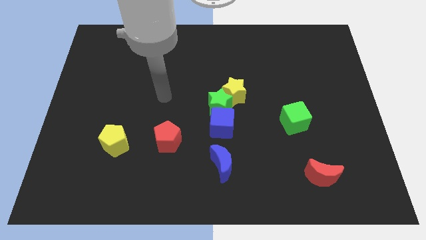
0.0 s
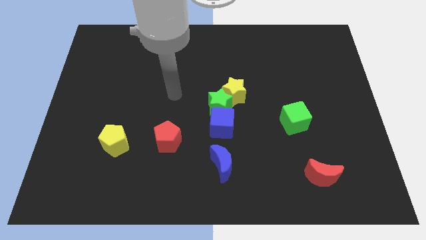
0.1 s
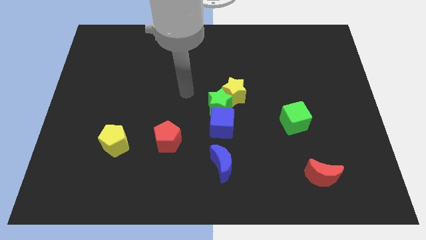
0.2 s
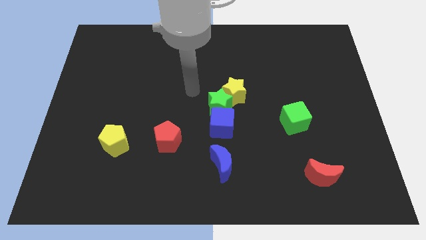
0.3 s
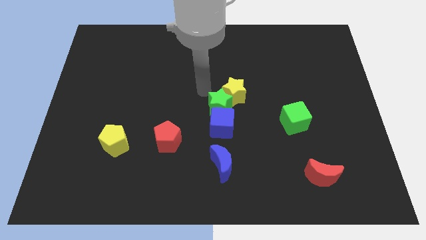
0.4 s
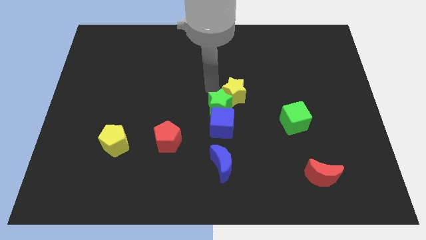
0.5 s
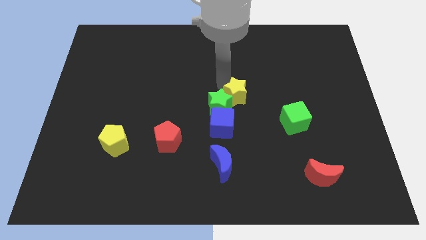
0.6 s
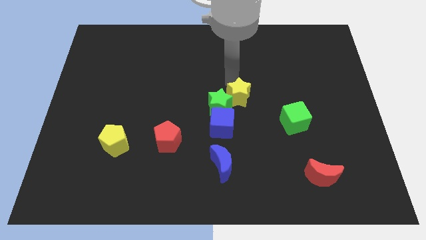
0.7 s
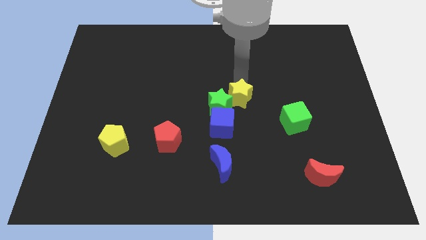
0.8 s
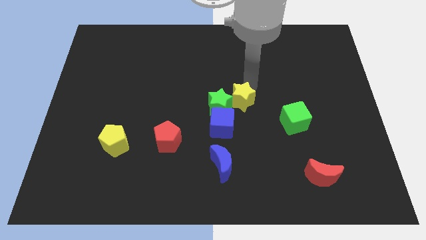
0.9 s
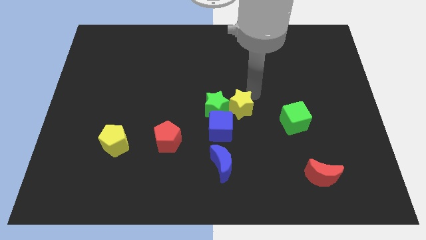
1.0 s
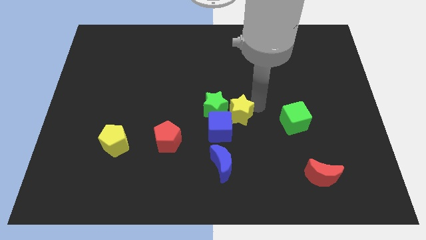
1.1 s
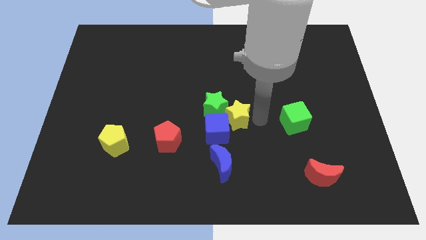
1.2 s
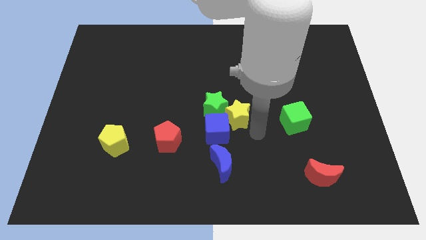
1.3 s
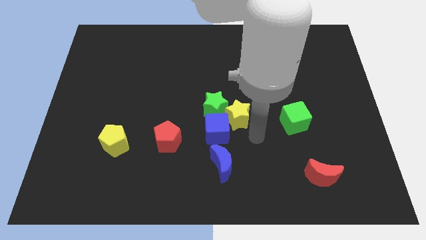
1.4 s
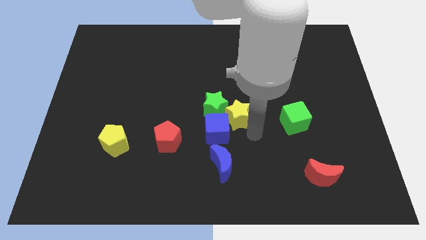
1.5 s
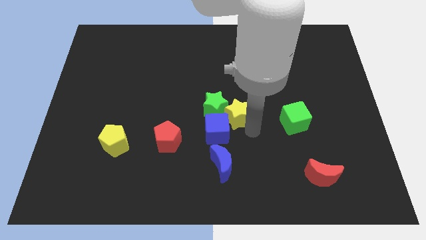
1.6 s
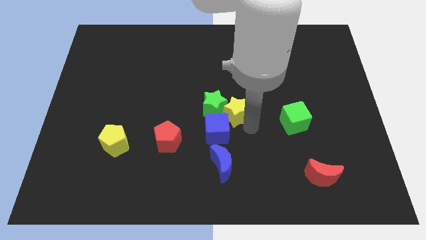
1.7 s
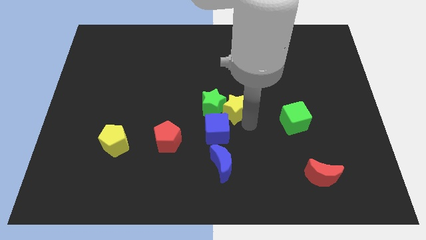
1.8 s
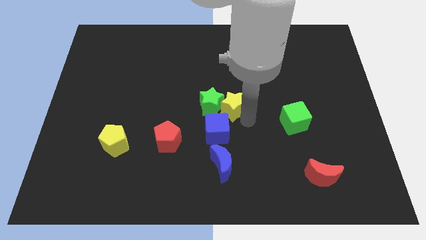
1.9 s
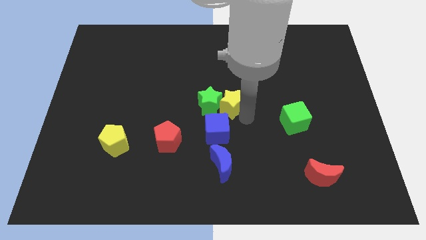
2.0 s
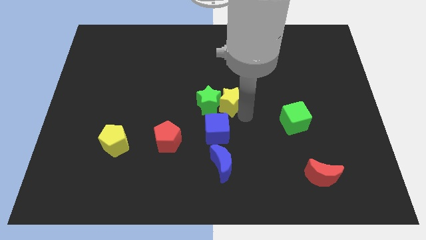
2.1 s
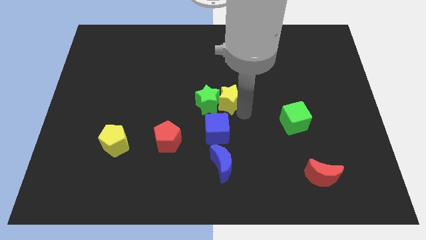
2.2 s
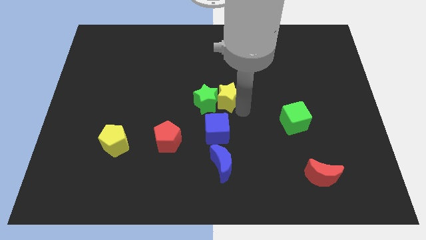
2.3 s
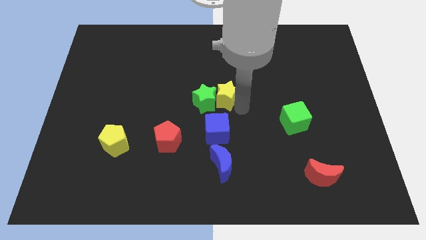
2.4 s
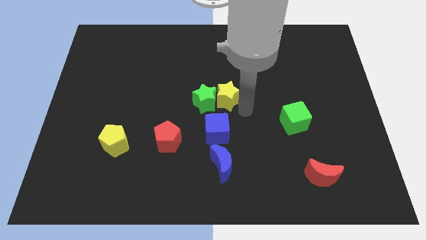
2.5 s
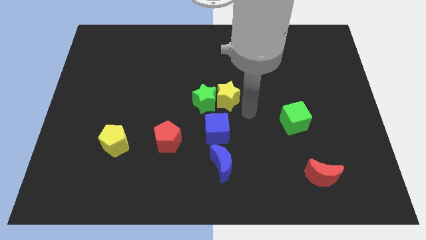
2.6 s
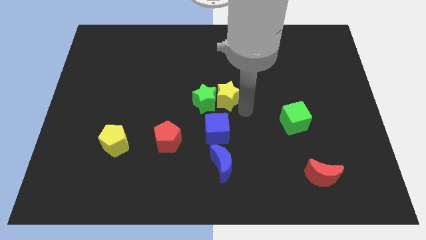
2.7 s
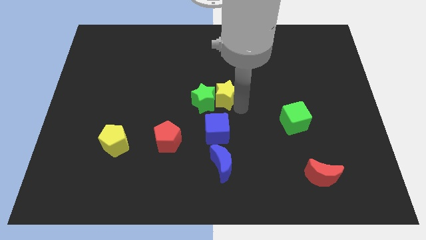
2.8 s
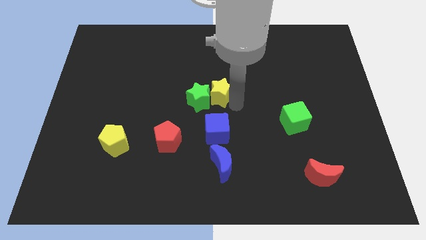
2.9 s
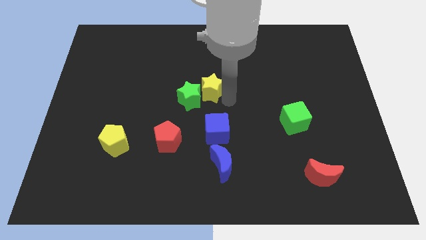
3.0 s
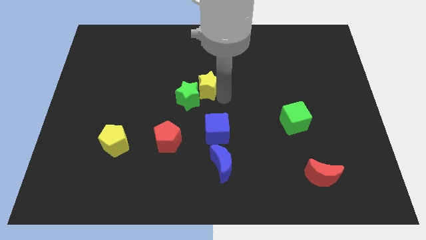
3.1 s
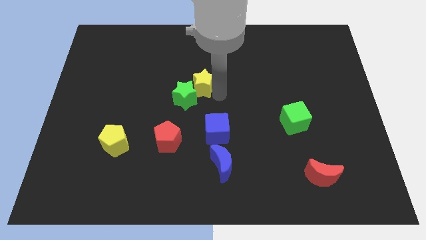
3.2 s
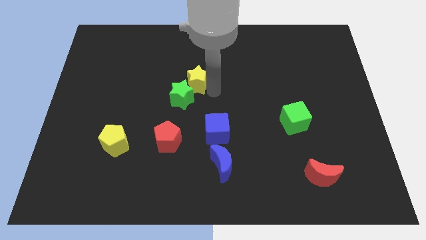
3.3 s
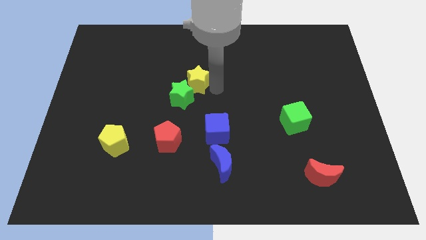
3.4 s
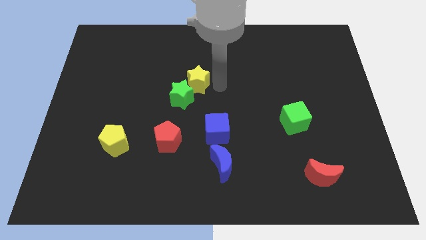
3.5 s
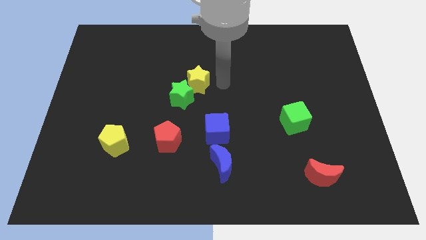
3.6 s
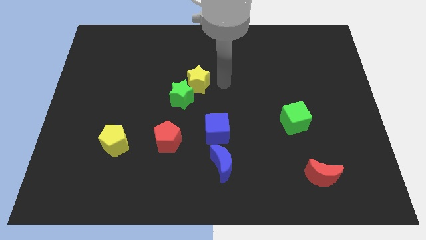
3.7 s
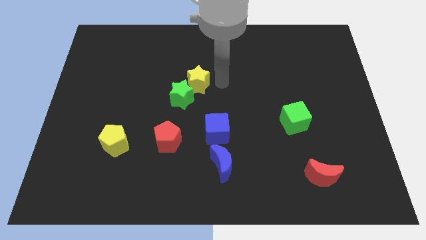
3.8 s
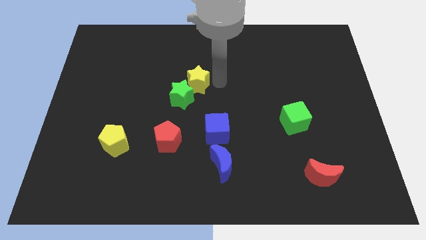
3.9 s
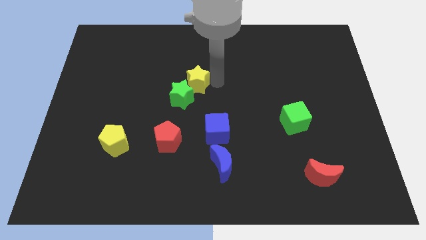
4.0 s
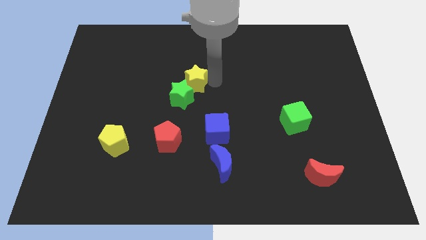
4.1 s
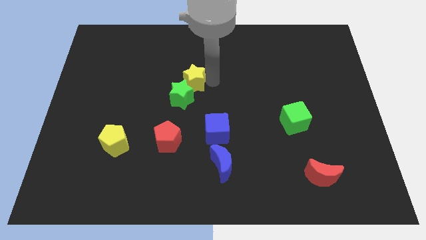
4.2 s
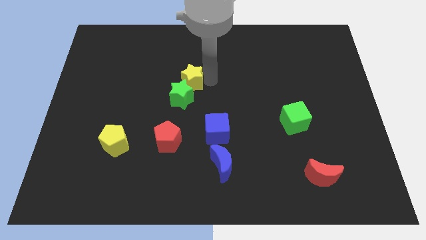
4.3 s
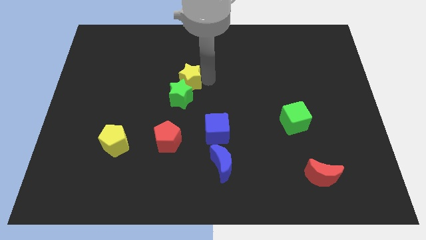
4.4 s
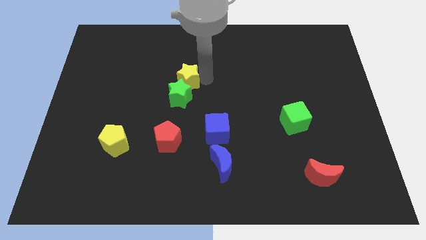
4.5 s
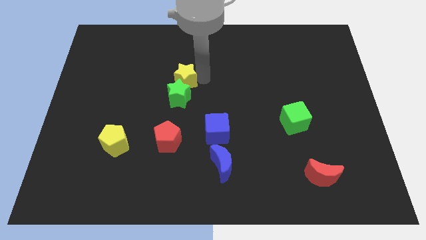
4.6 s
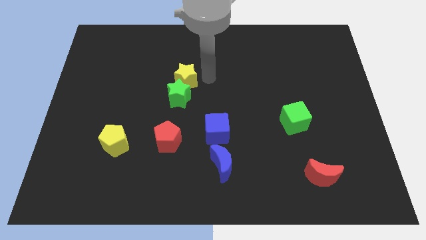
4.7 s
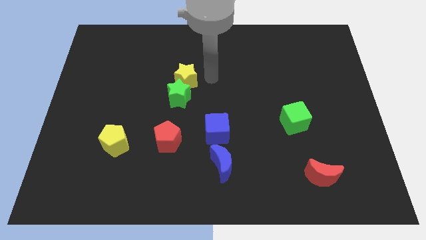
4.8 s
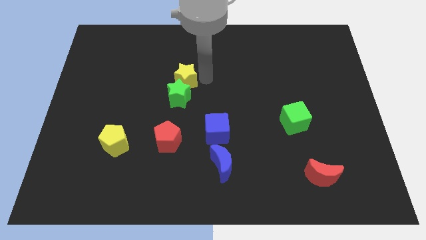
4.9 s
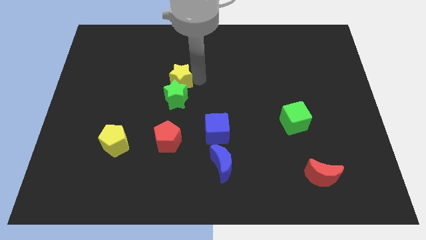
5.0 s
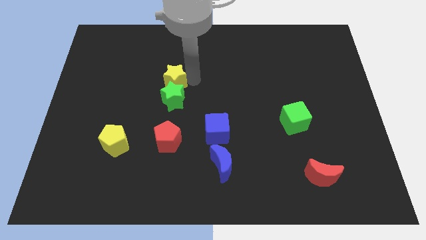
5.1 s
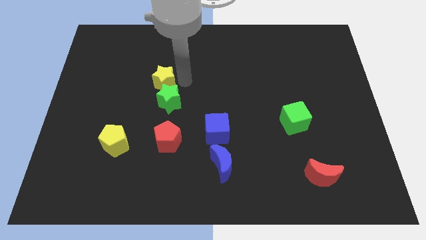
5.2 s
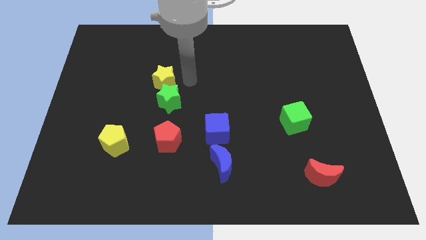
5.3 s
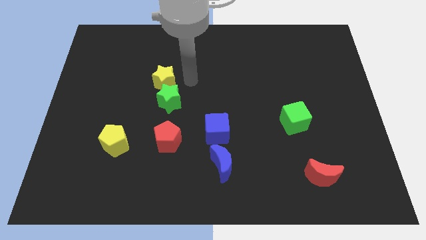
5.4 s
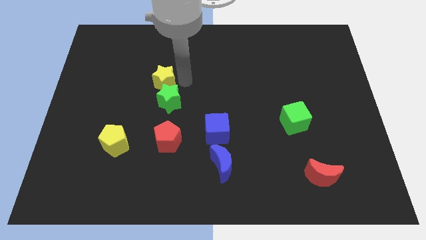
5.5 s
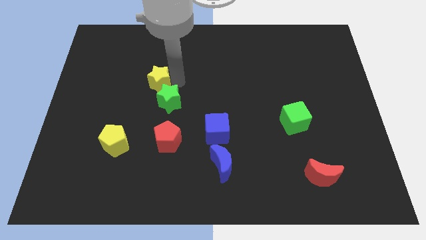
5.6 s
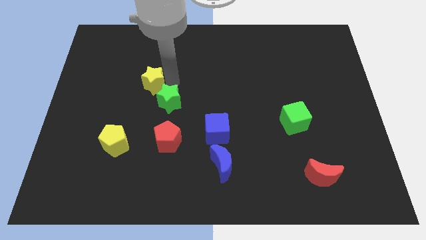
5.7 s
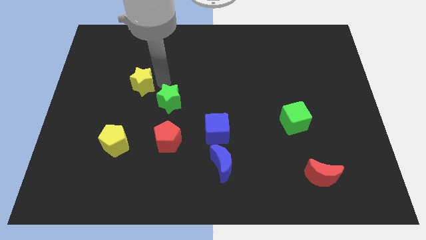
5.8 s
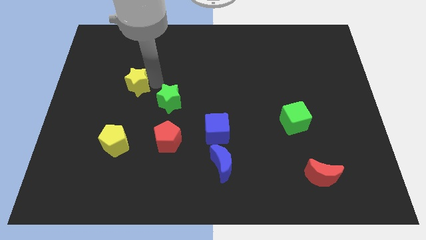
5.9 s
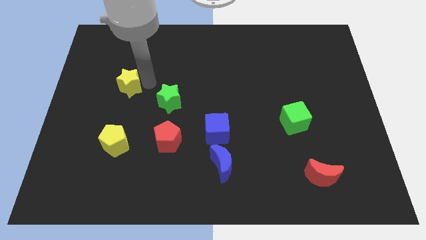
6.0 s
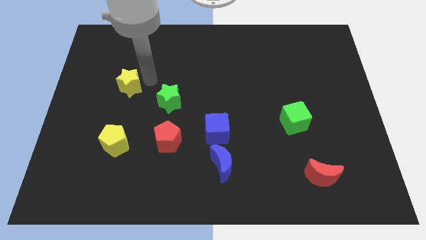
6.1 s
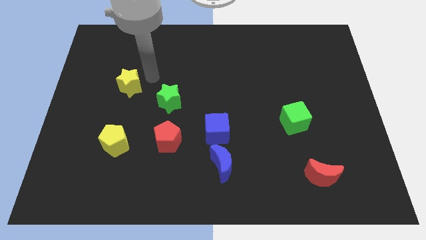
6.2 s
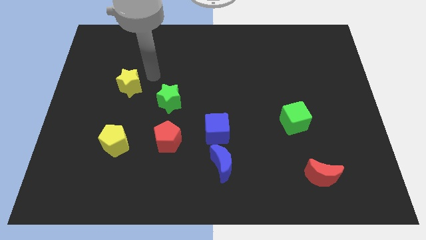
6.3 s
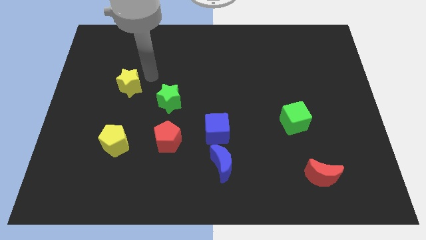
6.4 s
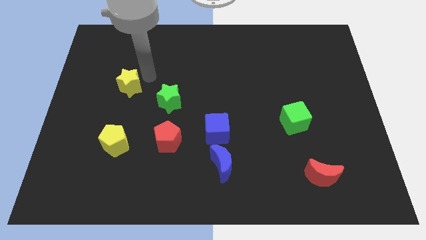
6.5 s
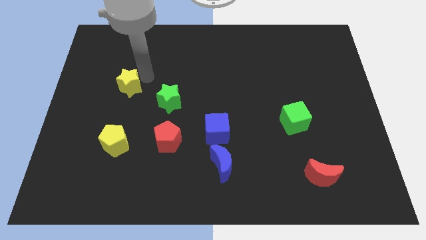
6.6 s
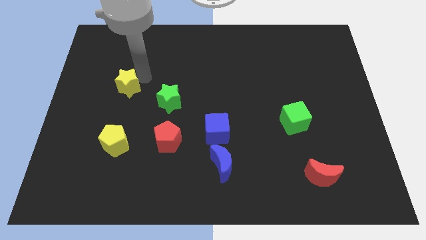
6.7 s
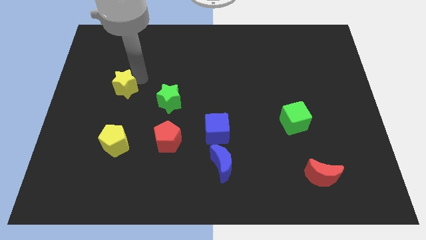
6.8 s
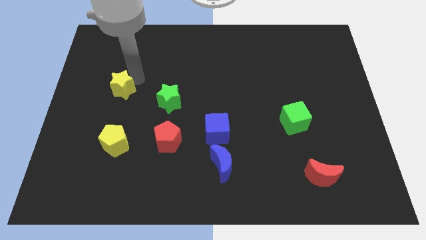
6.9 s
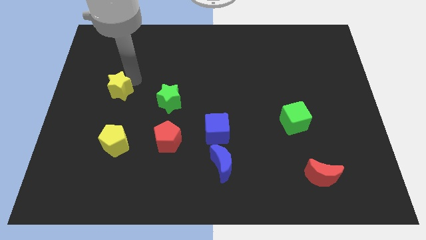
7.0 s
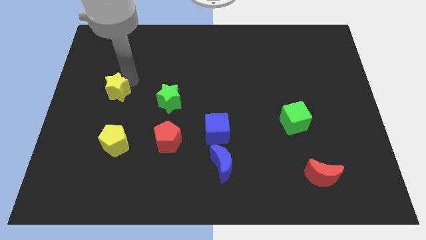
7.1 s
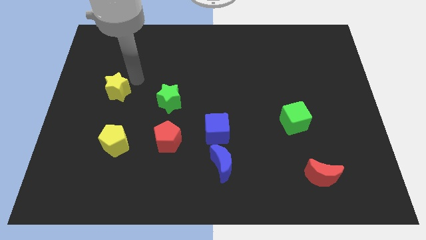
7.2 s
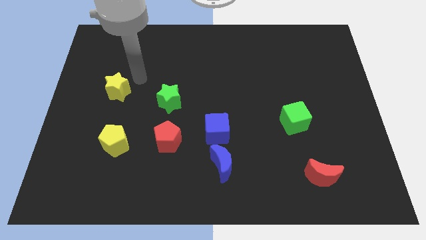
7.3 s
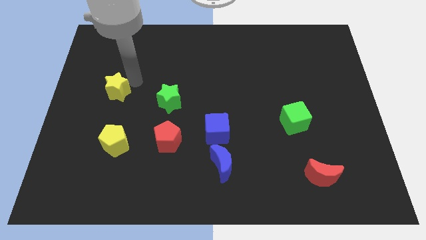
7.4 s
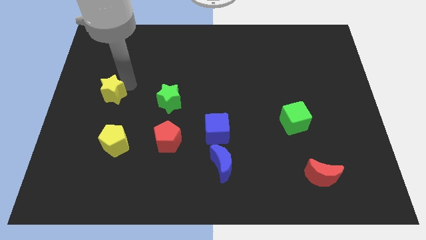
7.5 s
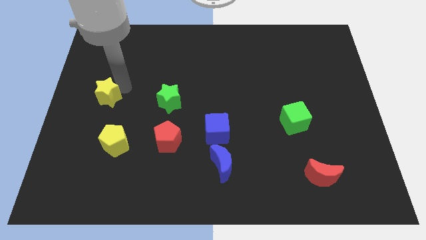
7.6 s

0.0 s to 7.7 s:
slide the yellow star to the left side
